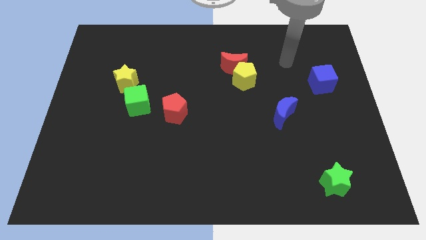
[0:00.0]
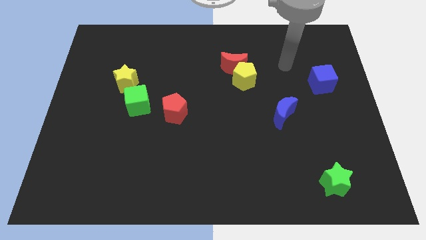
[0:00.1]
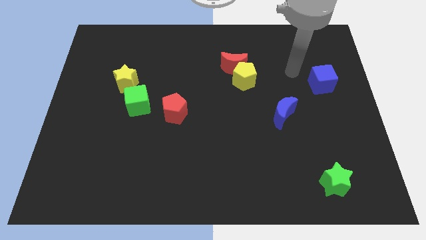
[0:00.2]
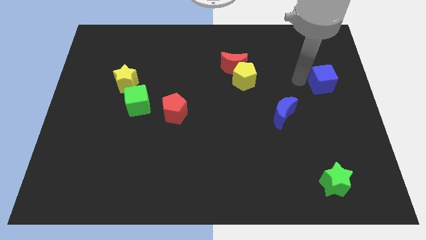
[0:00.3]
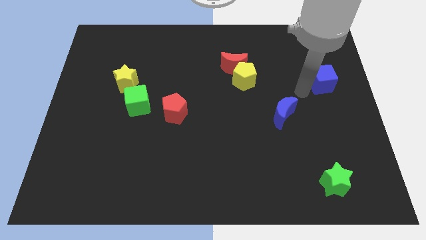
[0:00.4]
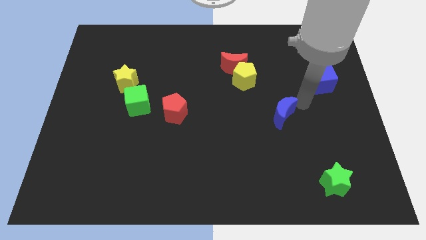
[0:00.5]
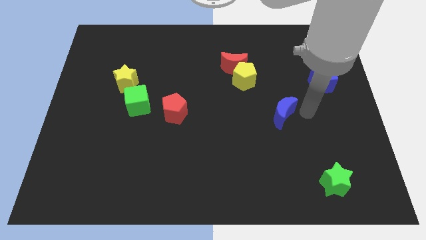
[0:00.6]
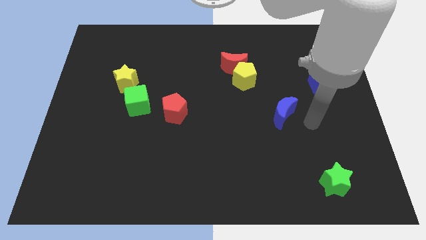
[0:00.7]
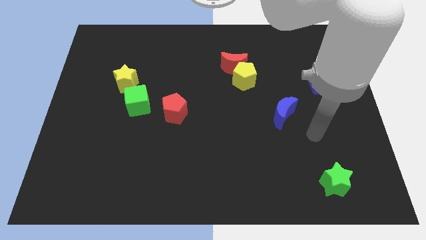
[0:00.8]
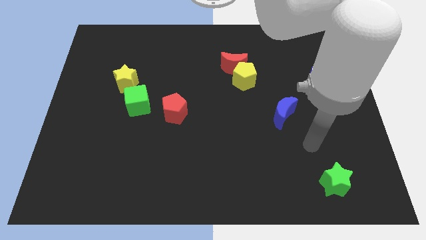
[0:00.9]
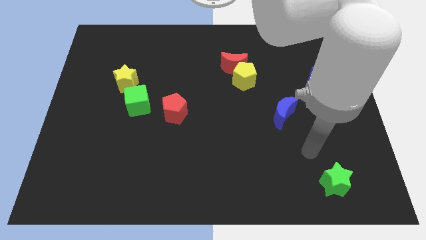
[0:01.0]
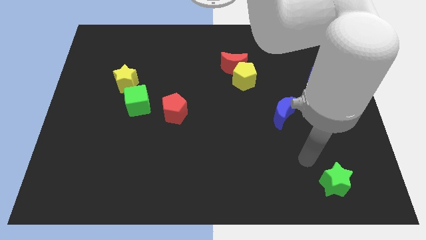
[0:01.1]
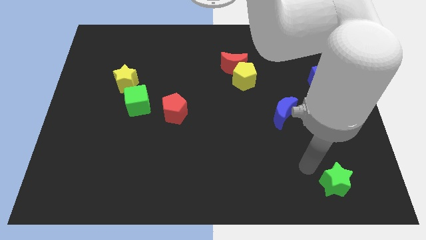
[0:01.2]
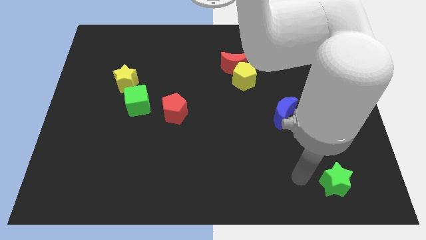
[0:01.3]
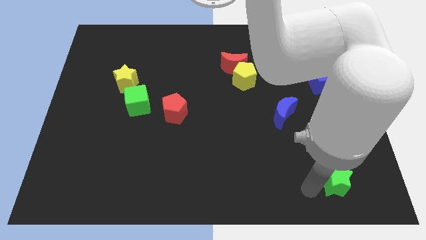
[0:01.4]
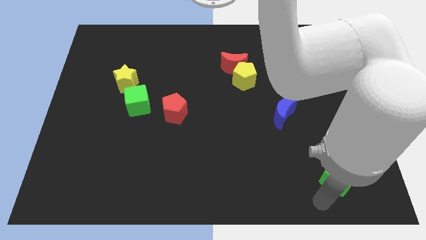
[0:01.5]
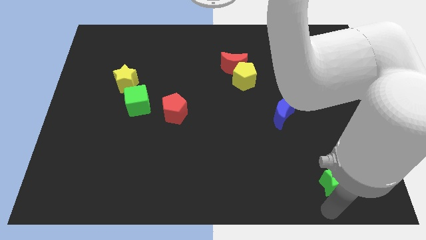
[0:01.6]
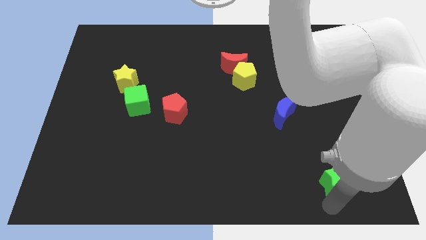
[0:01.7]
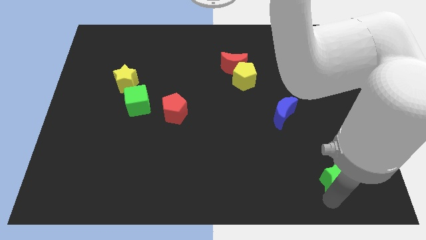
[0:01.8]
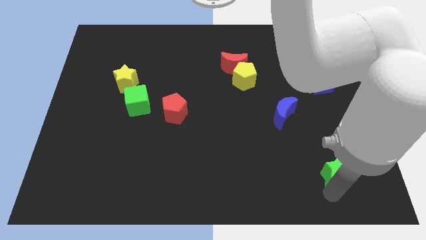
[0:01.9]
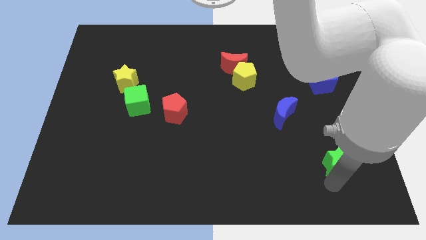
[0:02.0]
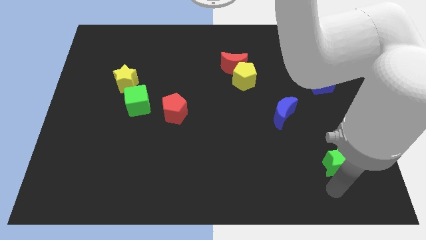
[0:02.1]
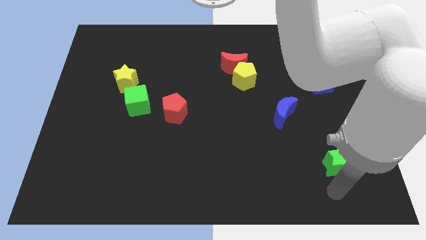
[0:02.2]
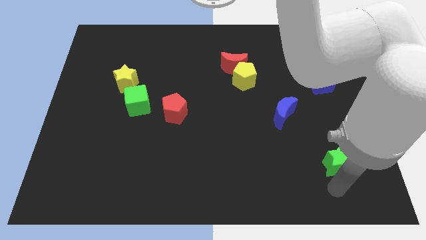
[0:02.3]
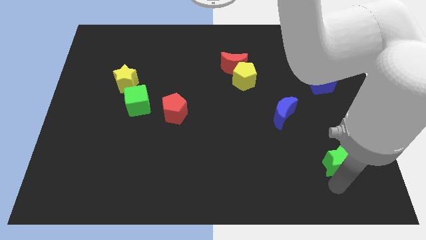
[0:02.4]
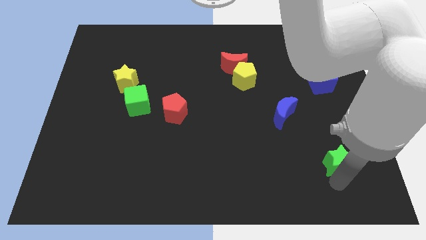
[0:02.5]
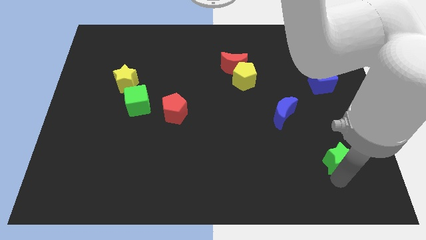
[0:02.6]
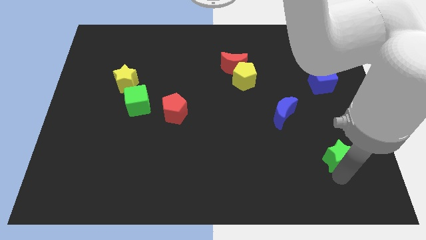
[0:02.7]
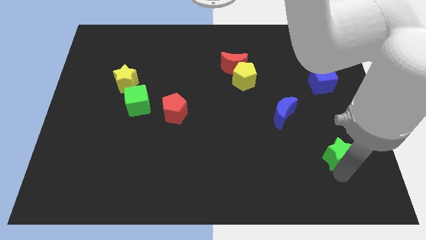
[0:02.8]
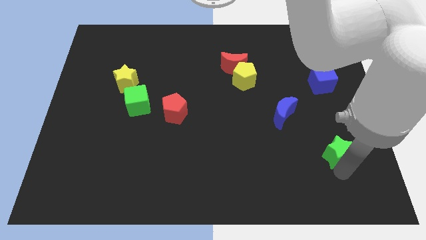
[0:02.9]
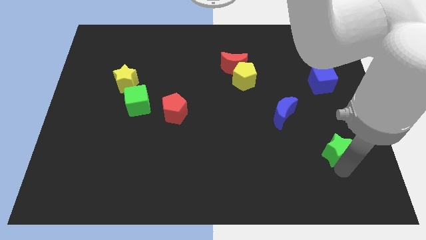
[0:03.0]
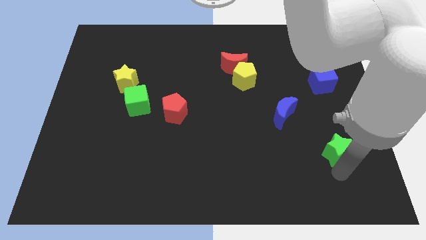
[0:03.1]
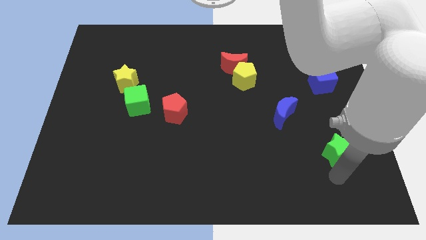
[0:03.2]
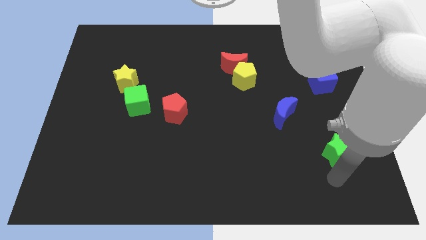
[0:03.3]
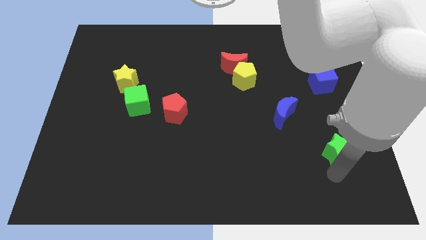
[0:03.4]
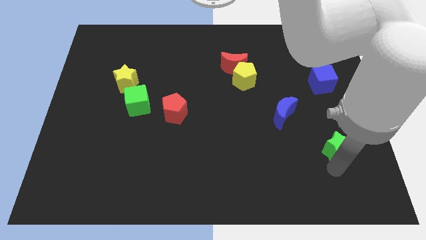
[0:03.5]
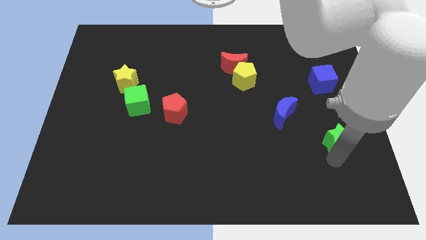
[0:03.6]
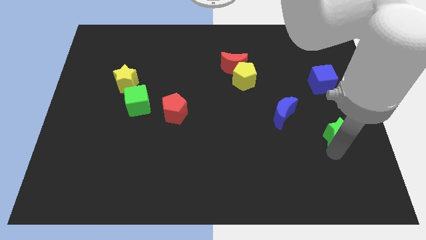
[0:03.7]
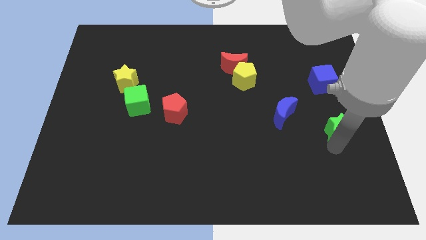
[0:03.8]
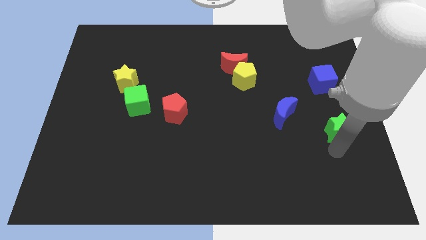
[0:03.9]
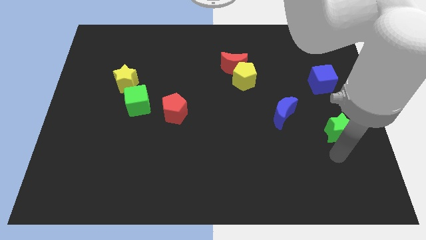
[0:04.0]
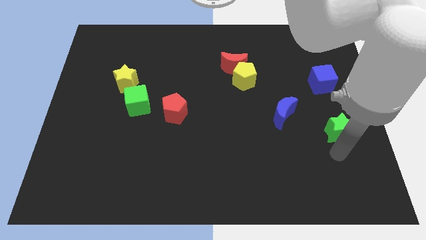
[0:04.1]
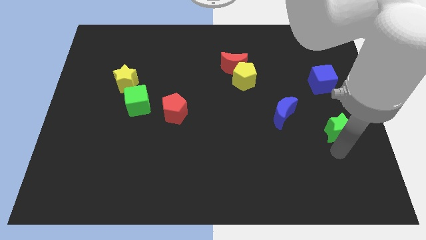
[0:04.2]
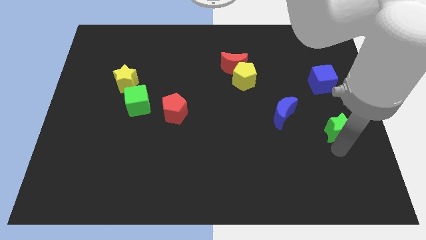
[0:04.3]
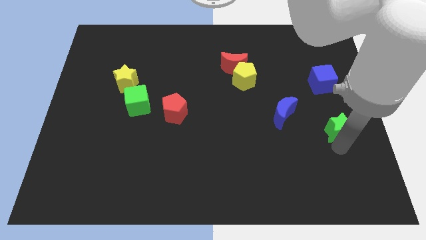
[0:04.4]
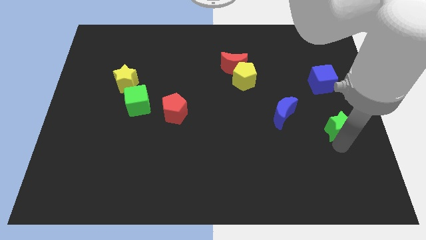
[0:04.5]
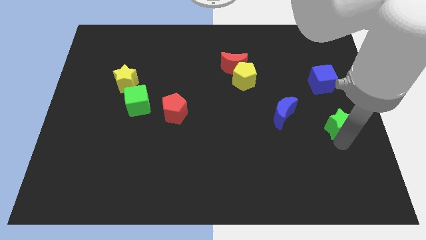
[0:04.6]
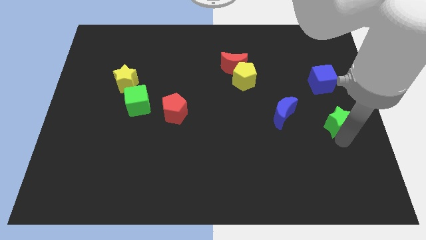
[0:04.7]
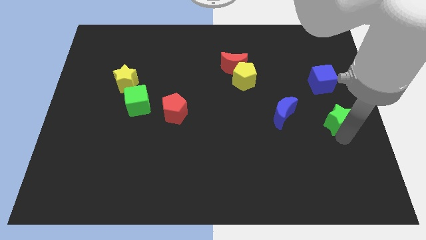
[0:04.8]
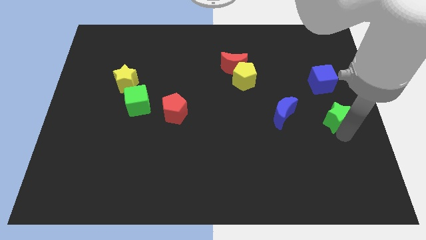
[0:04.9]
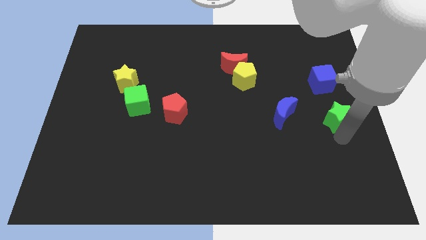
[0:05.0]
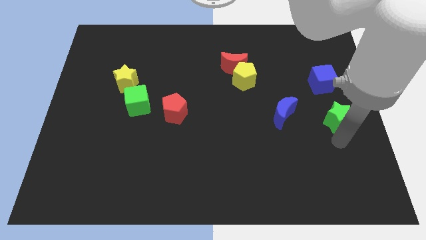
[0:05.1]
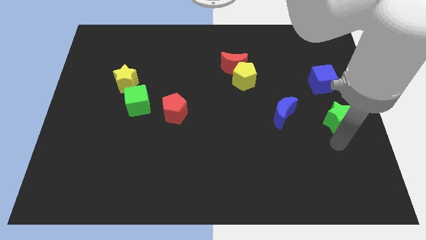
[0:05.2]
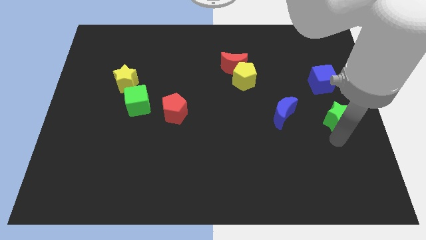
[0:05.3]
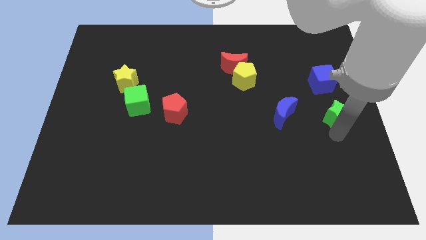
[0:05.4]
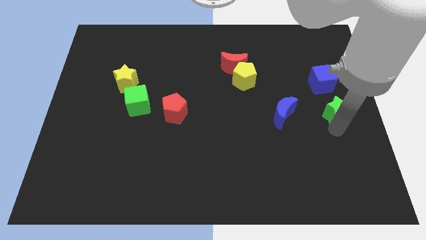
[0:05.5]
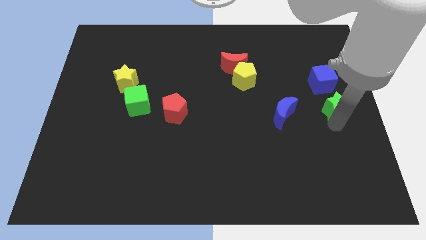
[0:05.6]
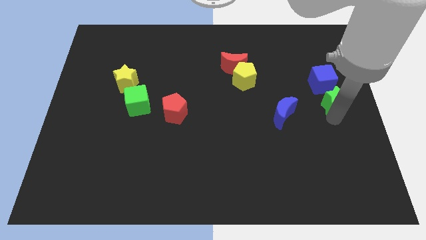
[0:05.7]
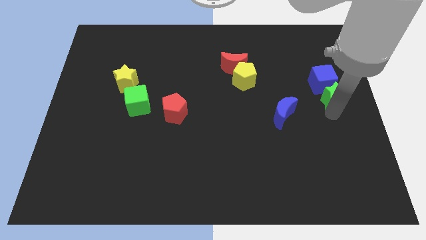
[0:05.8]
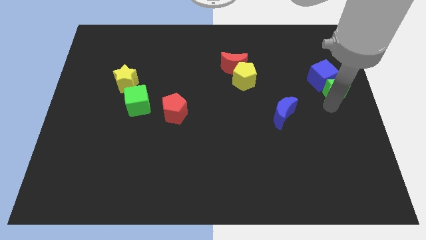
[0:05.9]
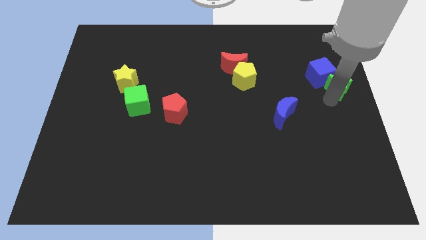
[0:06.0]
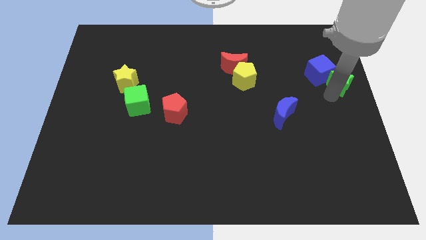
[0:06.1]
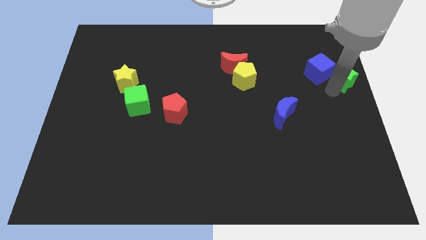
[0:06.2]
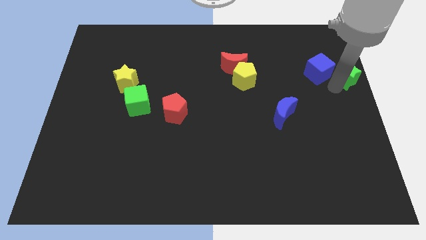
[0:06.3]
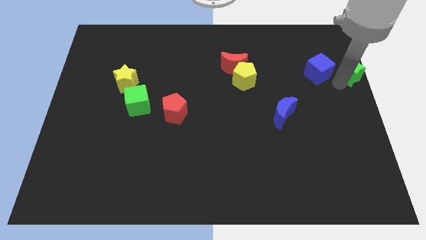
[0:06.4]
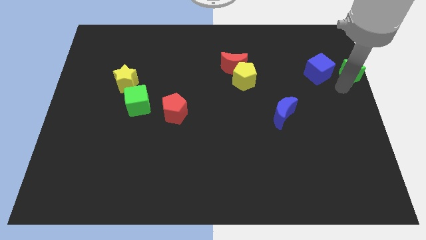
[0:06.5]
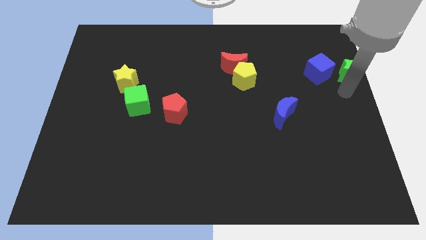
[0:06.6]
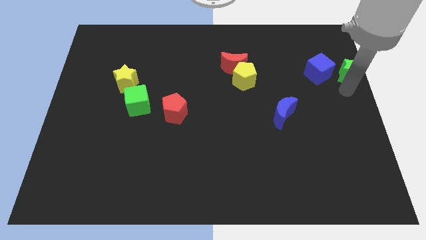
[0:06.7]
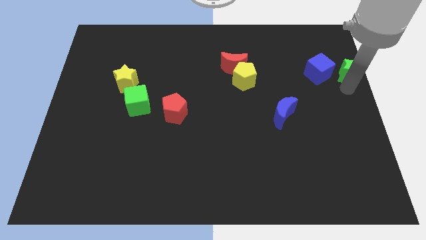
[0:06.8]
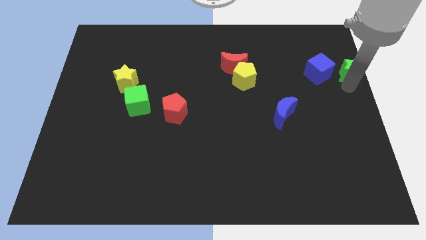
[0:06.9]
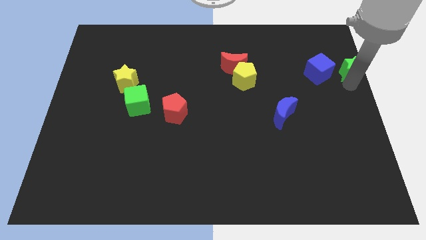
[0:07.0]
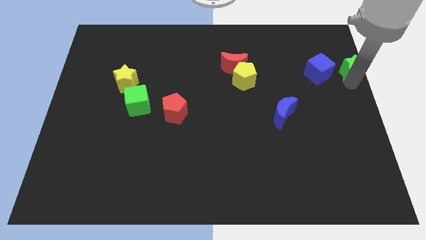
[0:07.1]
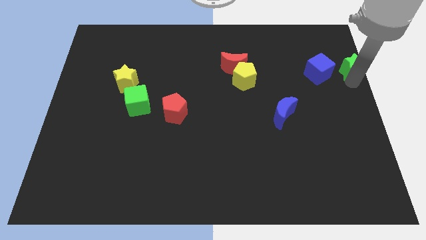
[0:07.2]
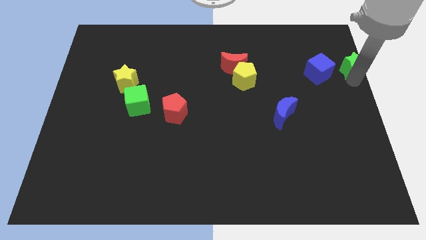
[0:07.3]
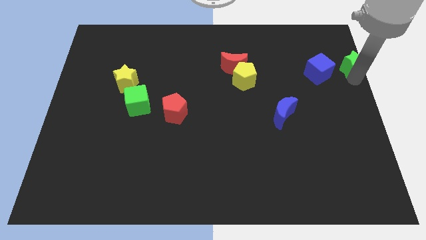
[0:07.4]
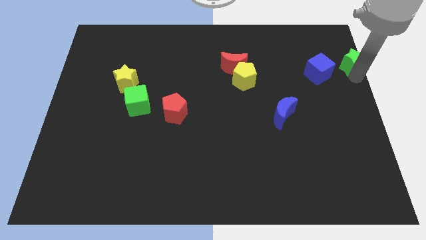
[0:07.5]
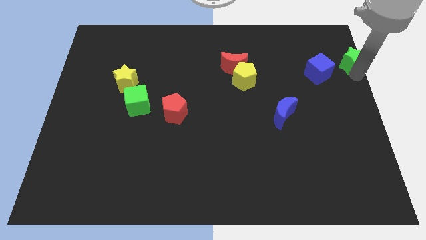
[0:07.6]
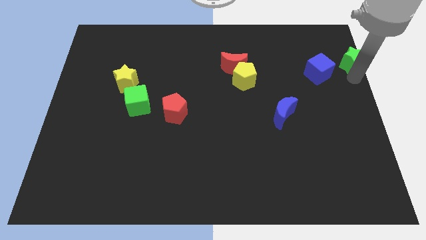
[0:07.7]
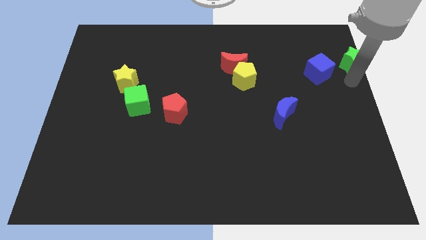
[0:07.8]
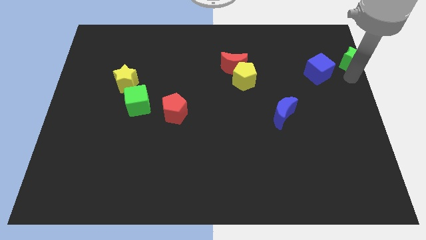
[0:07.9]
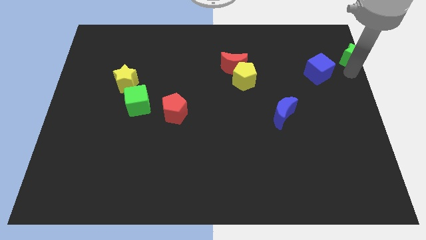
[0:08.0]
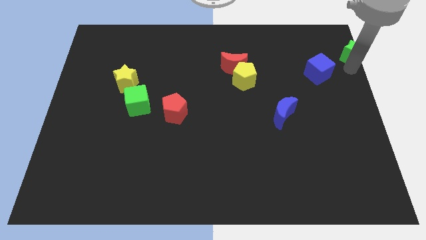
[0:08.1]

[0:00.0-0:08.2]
move the green star to the upper right corner
